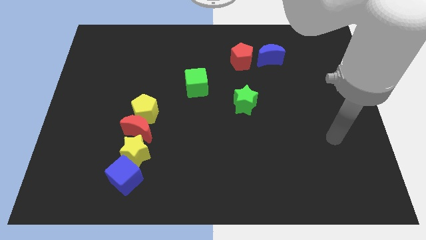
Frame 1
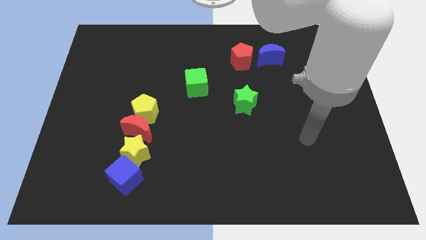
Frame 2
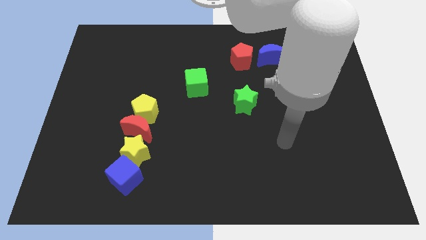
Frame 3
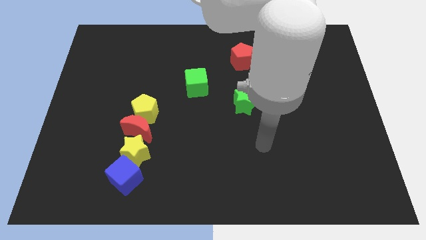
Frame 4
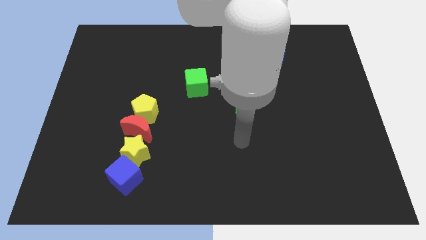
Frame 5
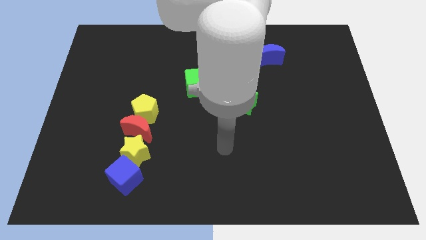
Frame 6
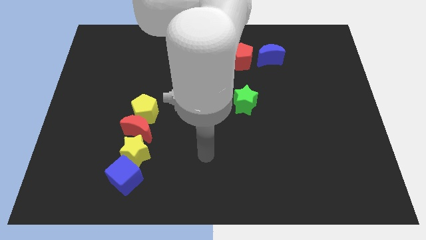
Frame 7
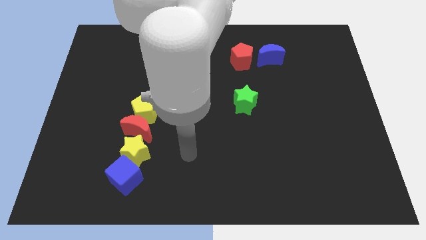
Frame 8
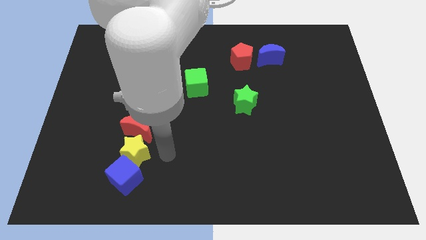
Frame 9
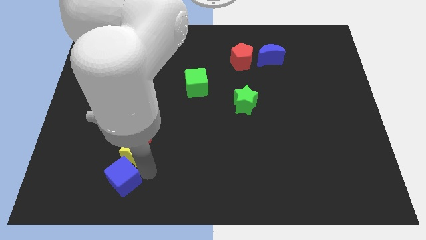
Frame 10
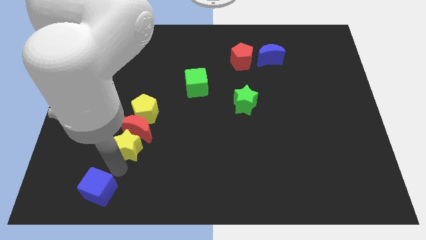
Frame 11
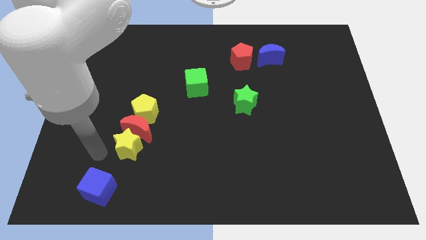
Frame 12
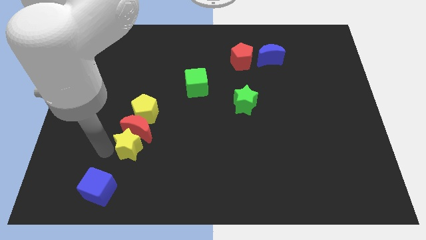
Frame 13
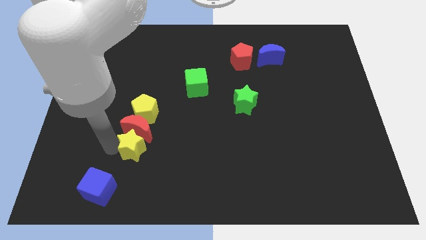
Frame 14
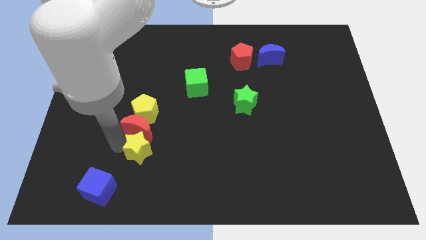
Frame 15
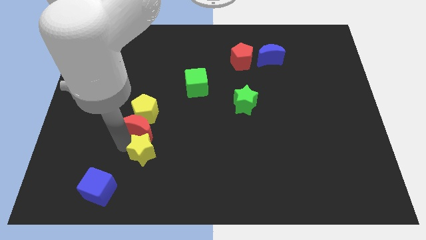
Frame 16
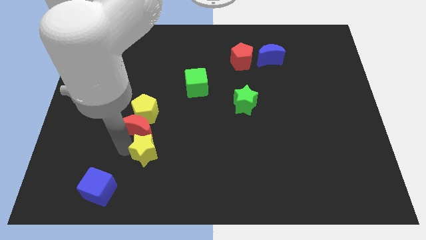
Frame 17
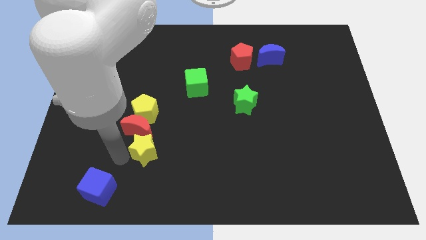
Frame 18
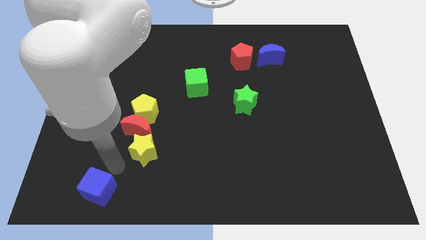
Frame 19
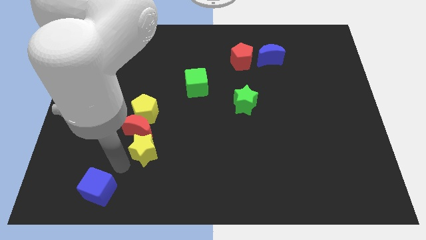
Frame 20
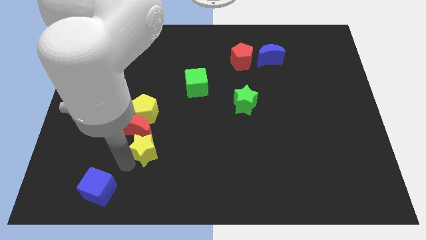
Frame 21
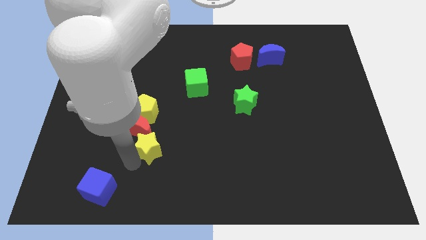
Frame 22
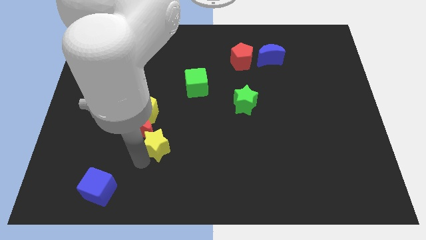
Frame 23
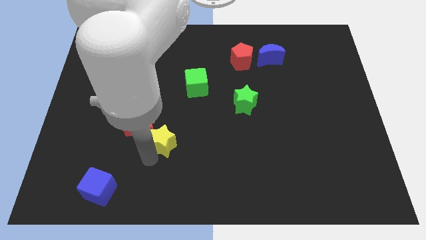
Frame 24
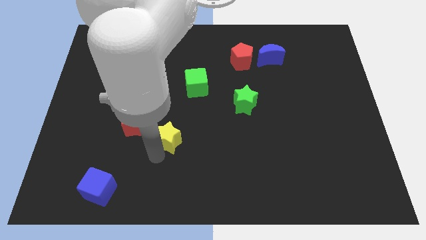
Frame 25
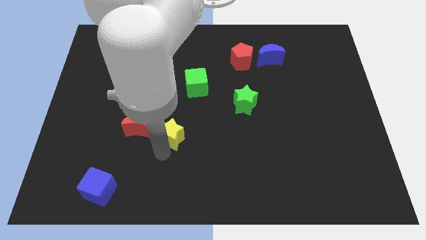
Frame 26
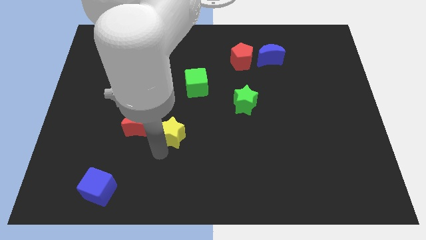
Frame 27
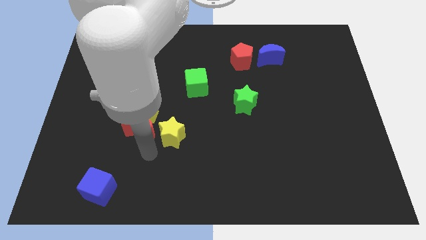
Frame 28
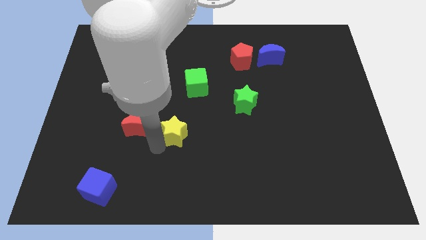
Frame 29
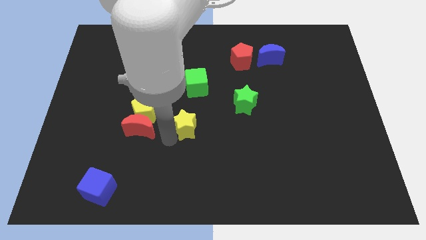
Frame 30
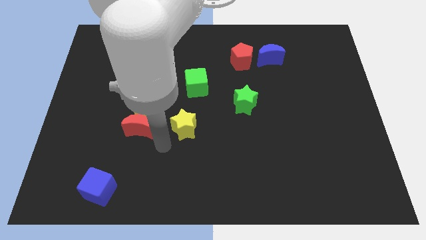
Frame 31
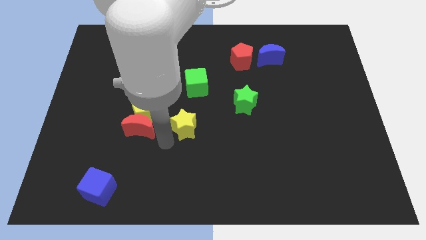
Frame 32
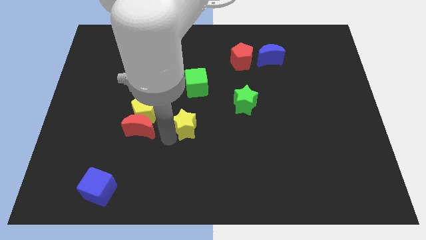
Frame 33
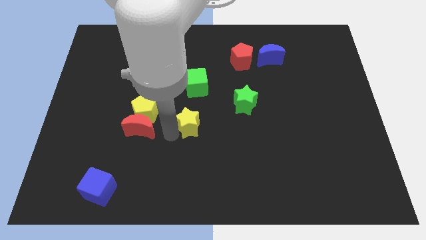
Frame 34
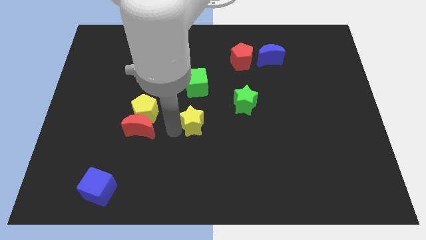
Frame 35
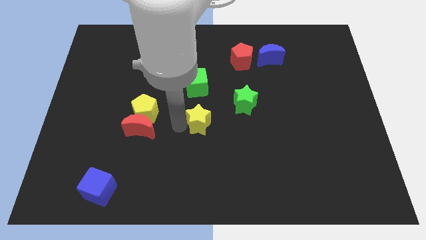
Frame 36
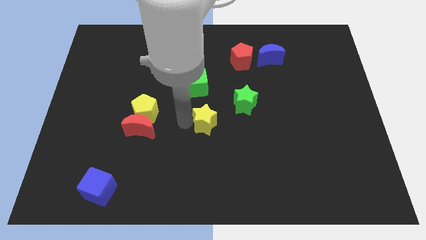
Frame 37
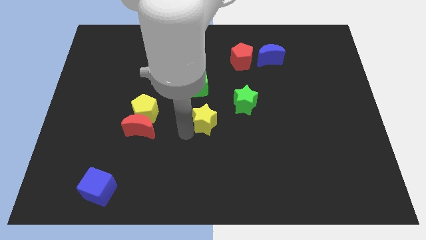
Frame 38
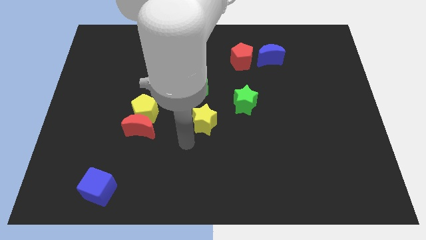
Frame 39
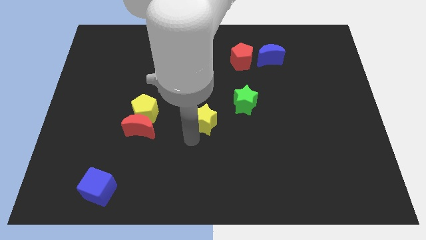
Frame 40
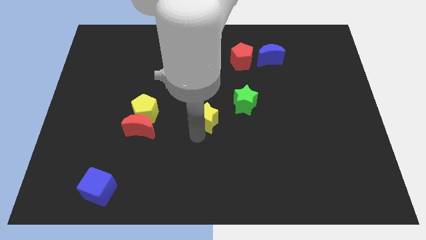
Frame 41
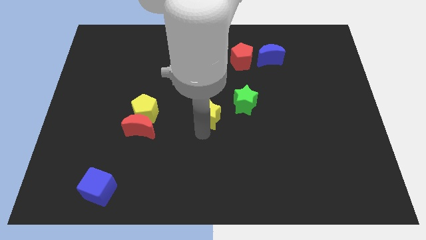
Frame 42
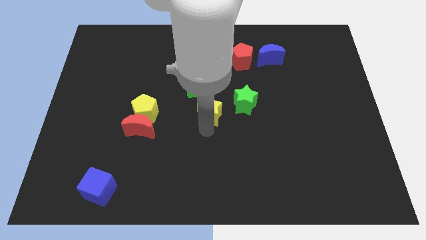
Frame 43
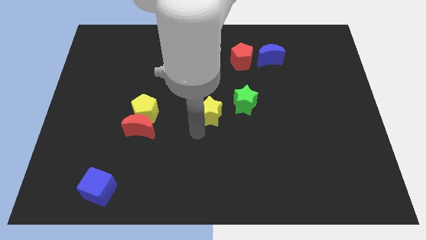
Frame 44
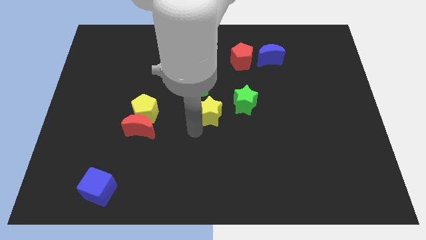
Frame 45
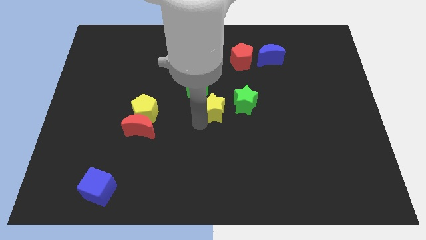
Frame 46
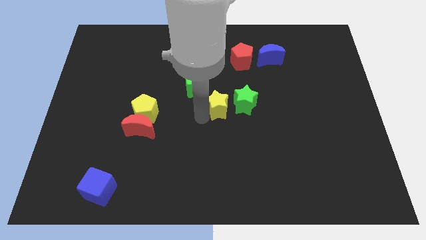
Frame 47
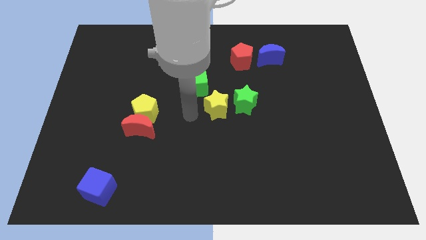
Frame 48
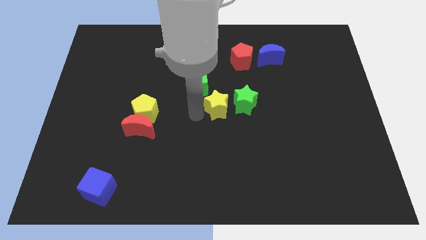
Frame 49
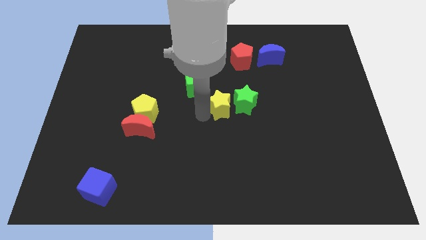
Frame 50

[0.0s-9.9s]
push the yellow star to the green star

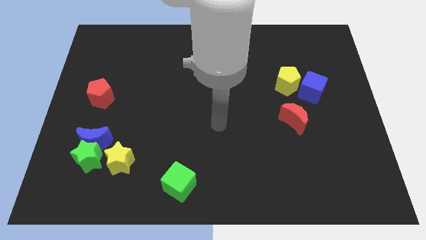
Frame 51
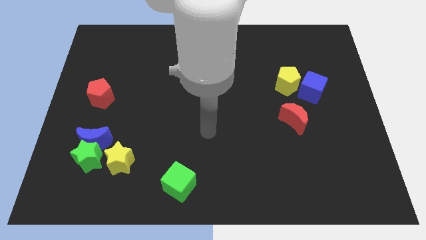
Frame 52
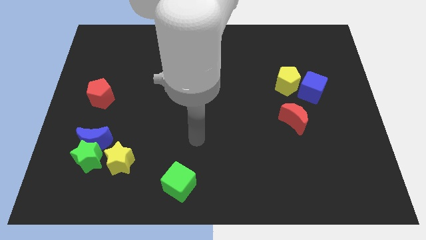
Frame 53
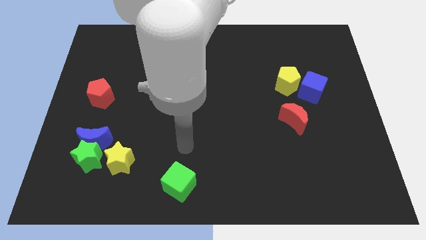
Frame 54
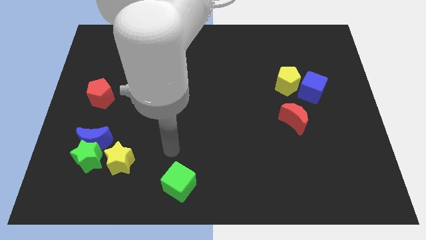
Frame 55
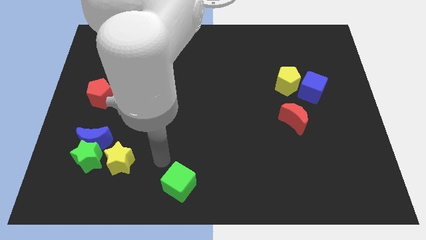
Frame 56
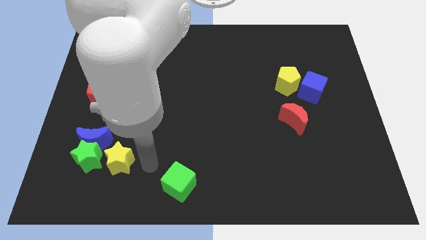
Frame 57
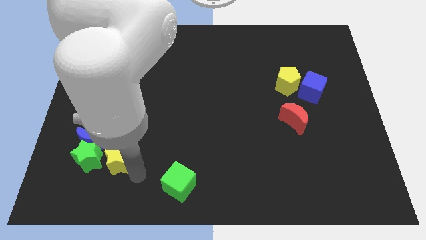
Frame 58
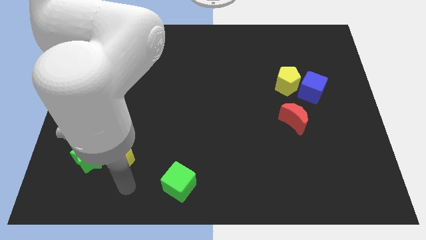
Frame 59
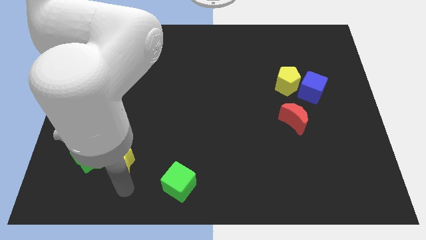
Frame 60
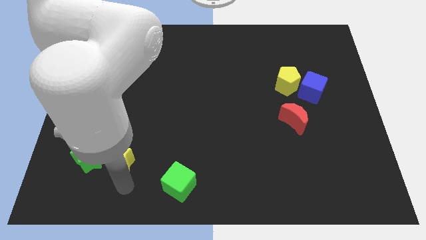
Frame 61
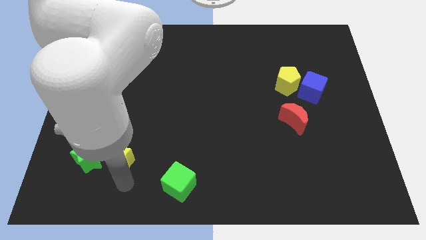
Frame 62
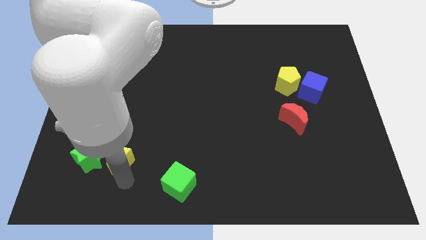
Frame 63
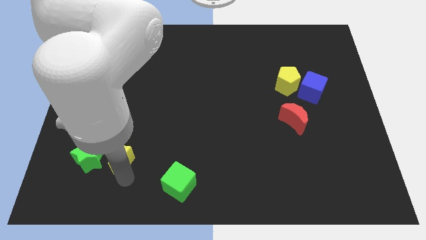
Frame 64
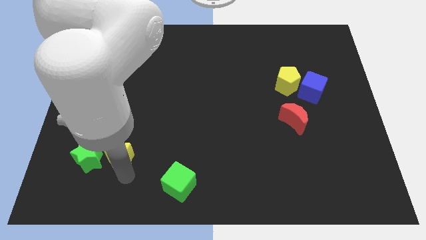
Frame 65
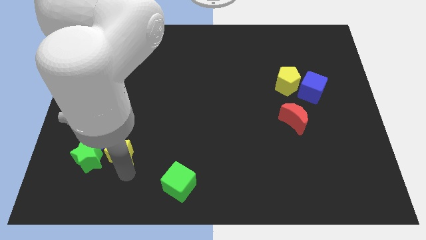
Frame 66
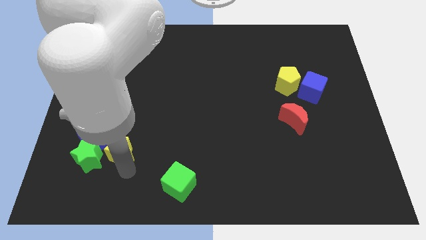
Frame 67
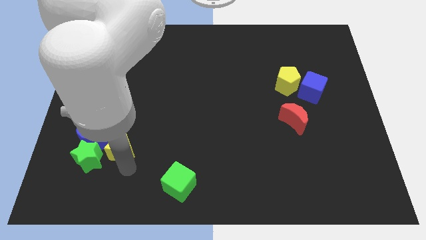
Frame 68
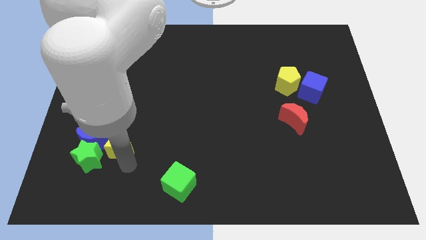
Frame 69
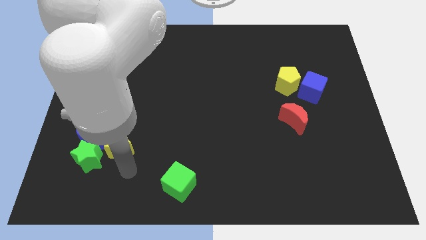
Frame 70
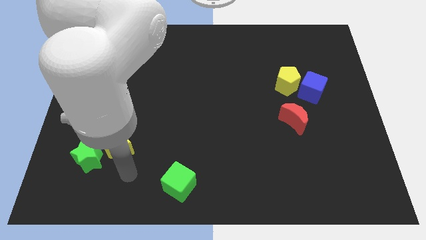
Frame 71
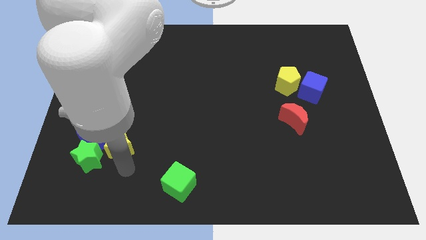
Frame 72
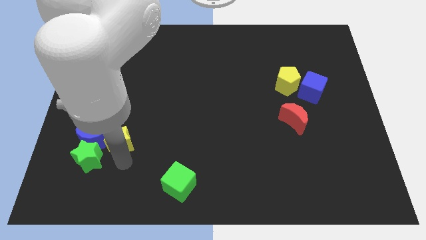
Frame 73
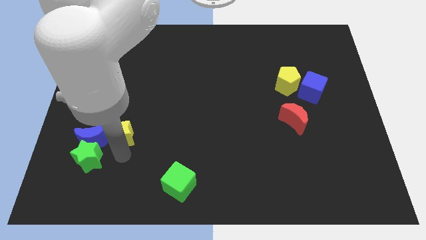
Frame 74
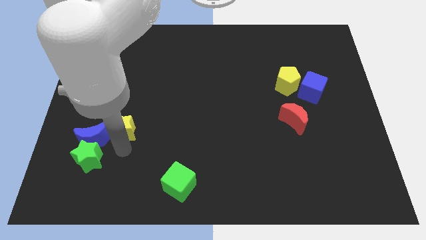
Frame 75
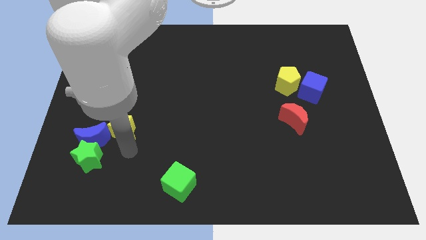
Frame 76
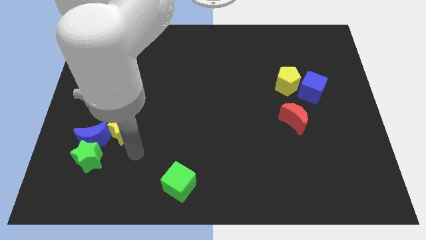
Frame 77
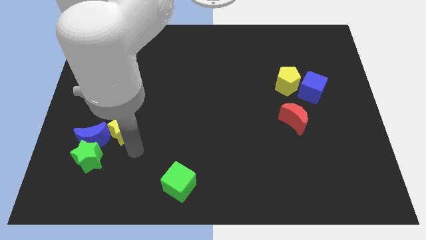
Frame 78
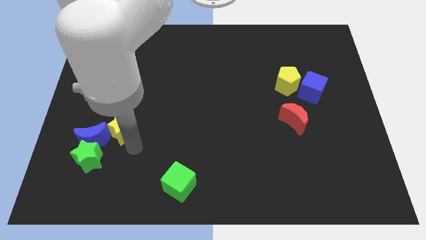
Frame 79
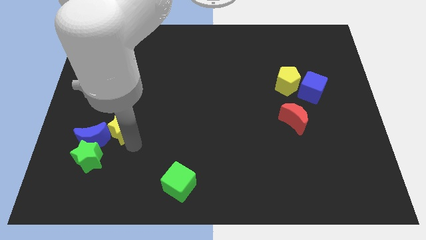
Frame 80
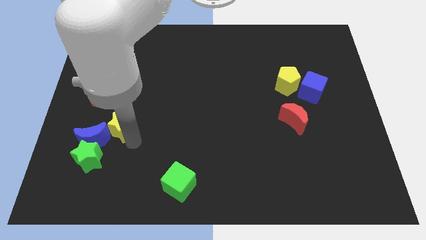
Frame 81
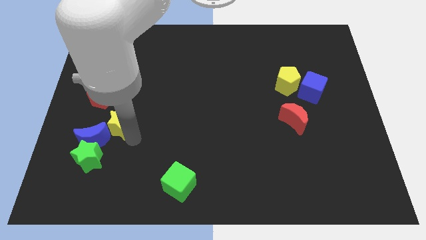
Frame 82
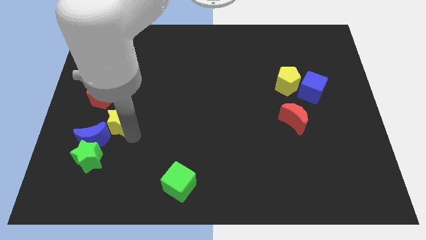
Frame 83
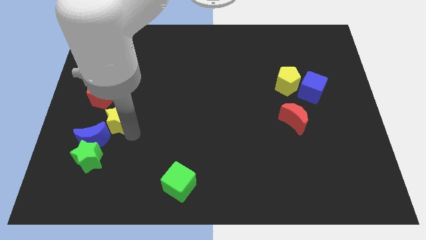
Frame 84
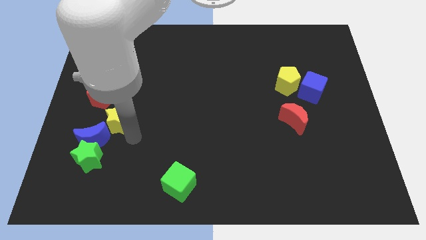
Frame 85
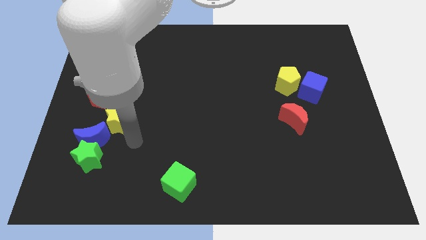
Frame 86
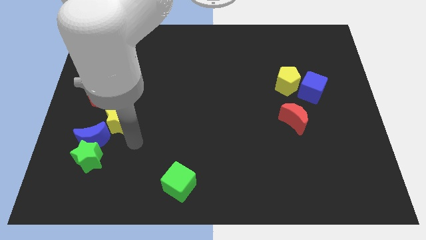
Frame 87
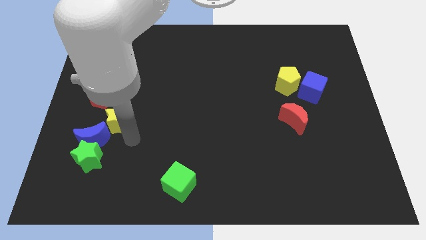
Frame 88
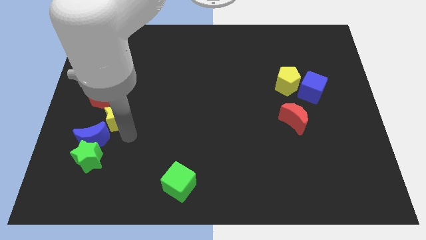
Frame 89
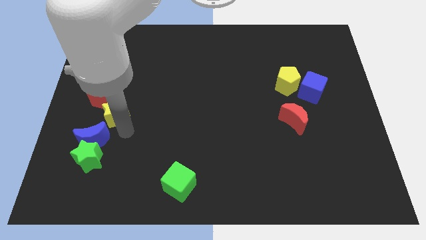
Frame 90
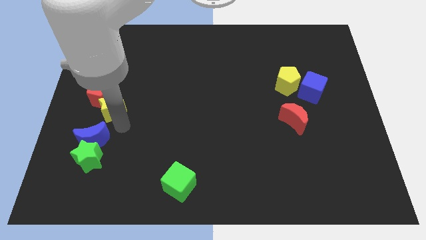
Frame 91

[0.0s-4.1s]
put the yellow star towards the red pentagon
